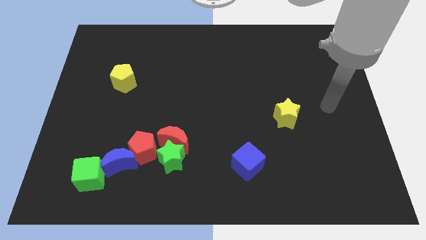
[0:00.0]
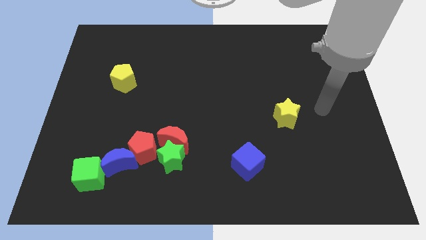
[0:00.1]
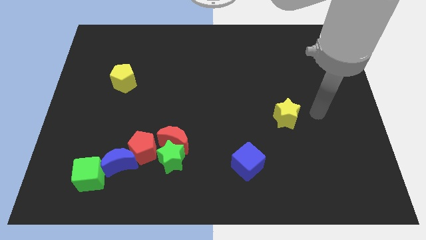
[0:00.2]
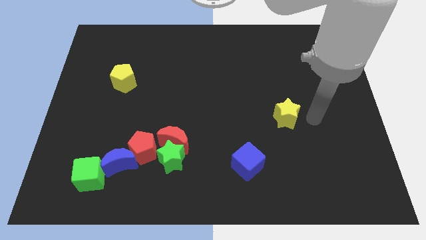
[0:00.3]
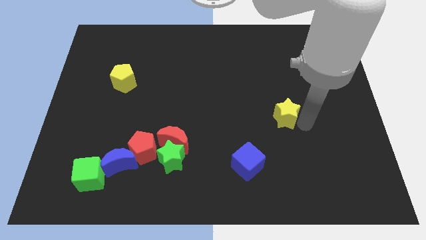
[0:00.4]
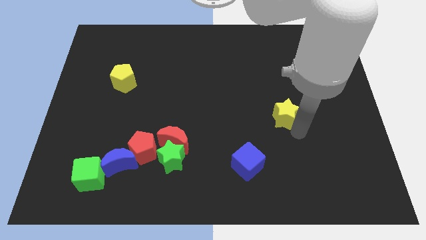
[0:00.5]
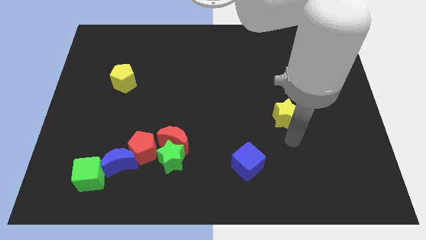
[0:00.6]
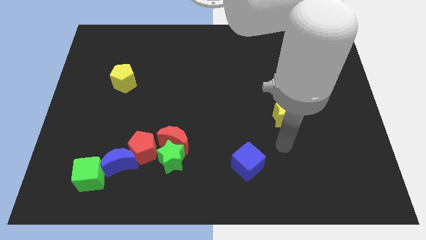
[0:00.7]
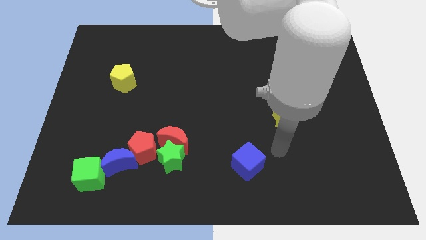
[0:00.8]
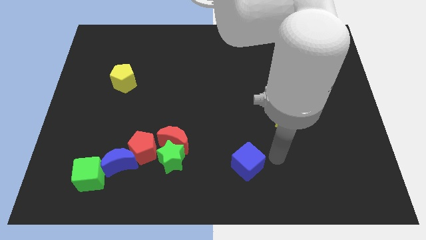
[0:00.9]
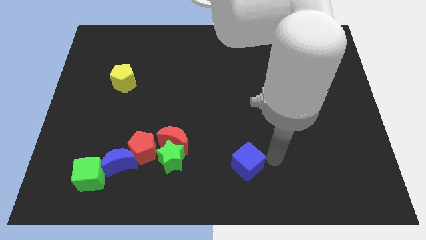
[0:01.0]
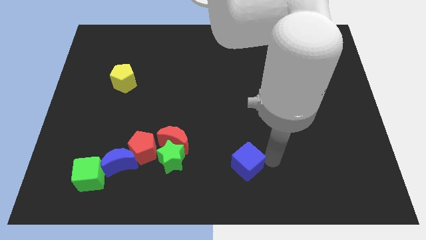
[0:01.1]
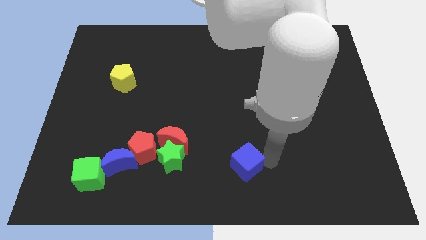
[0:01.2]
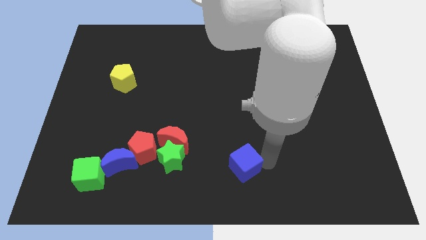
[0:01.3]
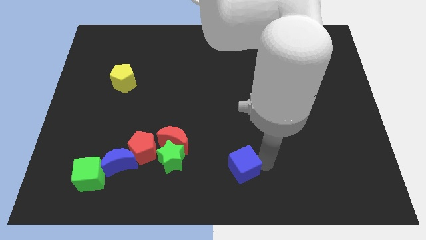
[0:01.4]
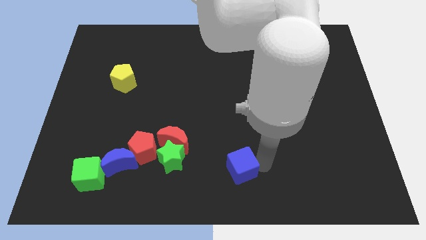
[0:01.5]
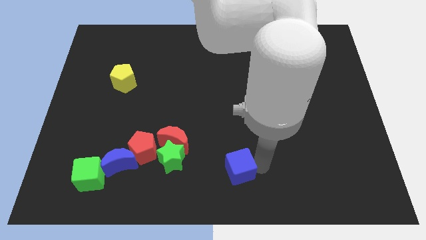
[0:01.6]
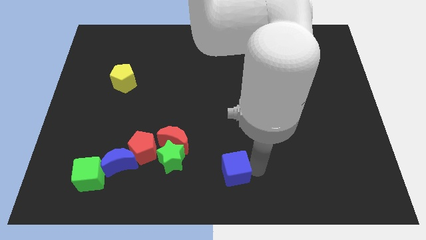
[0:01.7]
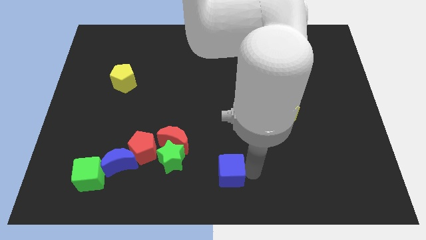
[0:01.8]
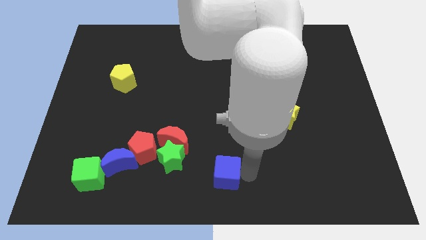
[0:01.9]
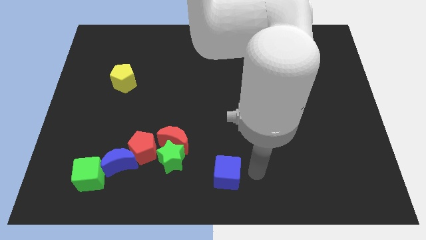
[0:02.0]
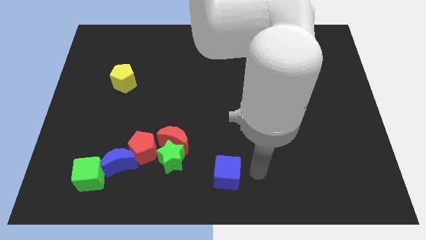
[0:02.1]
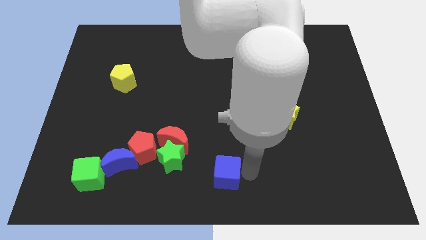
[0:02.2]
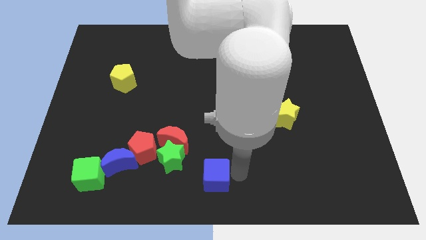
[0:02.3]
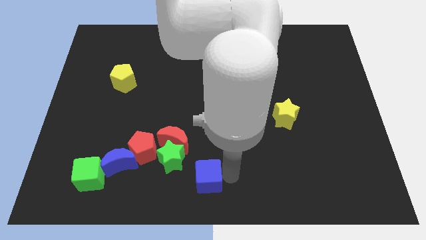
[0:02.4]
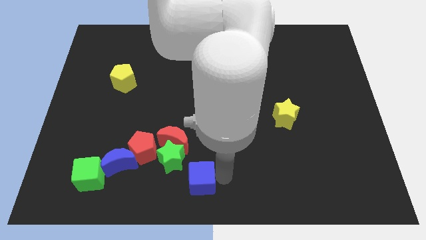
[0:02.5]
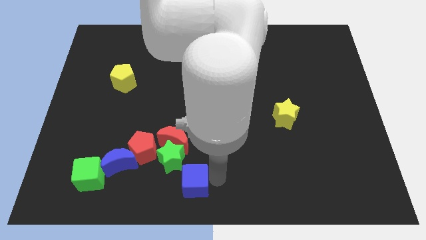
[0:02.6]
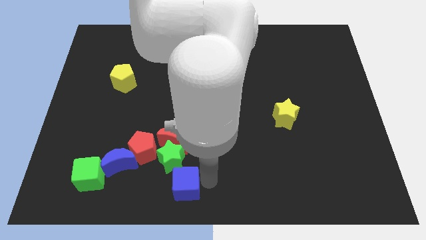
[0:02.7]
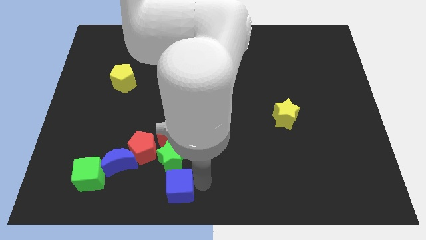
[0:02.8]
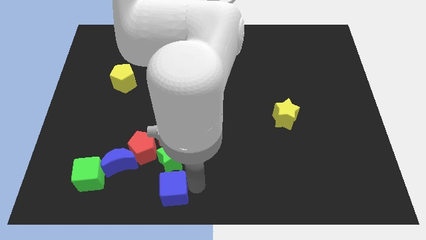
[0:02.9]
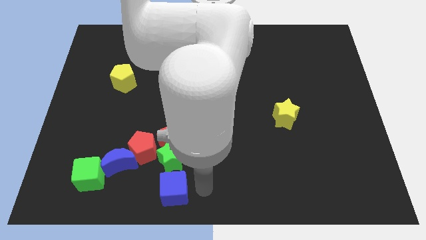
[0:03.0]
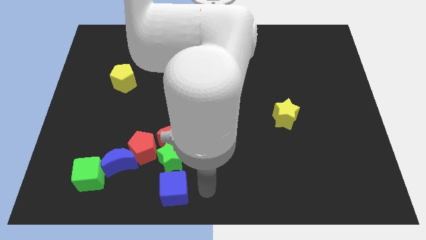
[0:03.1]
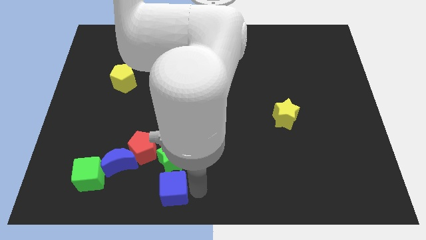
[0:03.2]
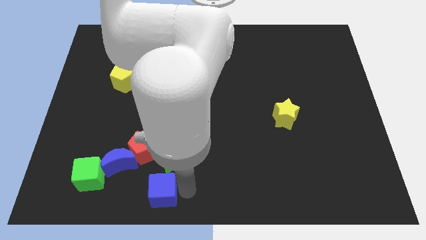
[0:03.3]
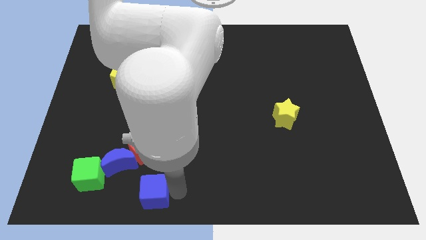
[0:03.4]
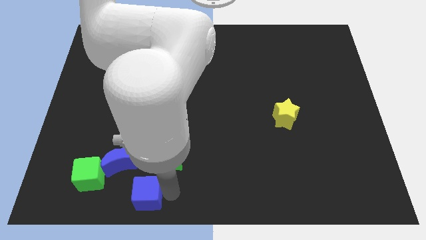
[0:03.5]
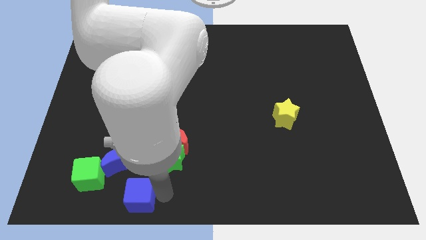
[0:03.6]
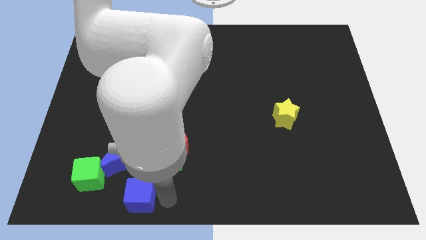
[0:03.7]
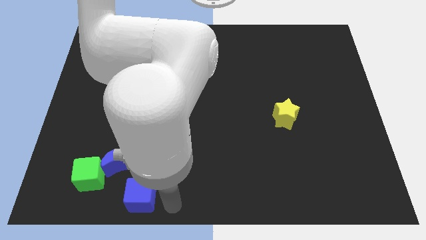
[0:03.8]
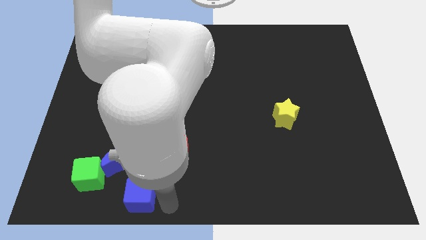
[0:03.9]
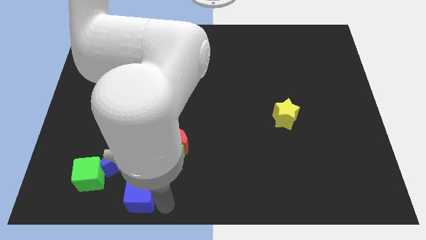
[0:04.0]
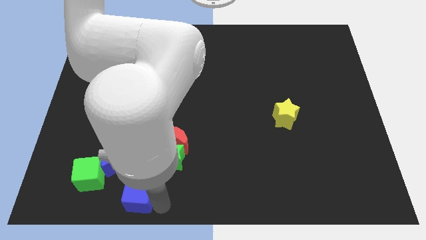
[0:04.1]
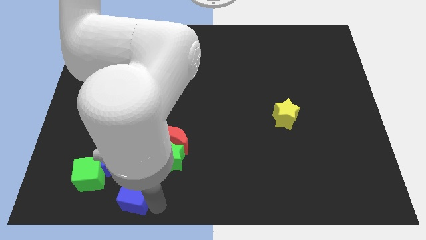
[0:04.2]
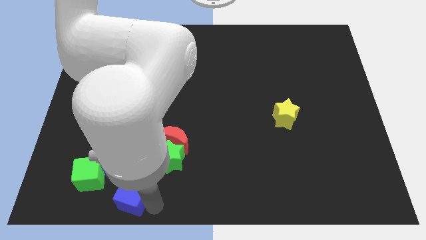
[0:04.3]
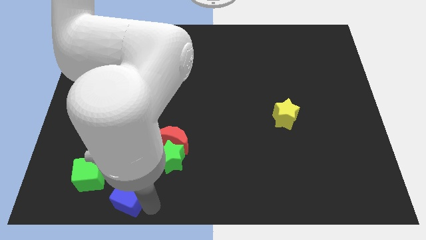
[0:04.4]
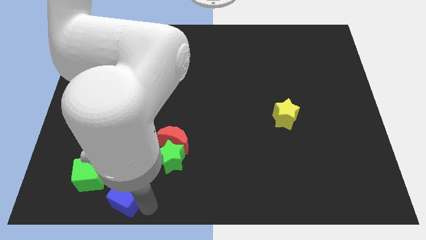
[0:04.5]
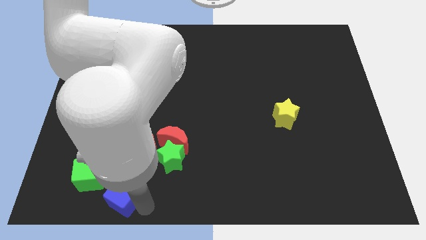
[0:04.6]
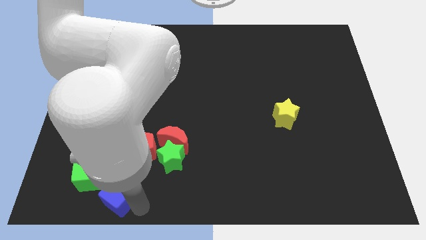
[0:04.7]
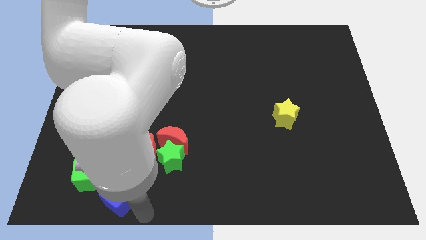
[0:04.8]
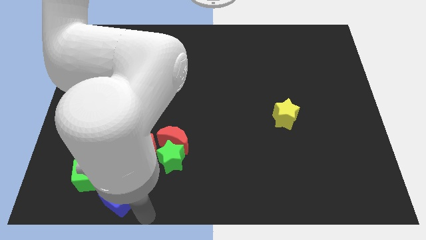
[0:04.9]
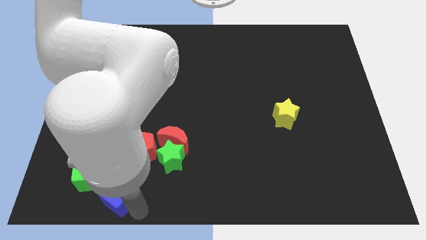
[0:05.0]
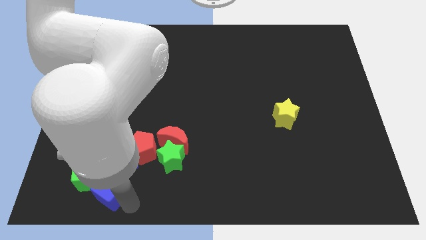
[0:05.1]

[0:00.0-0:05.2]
push the blue cube towards the green cube

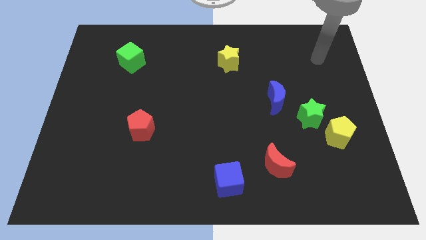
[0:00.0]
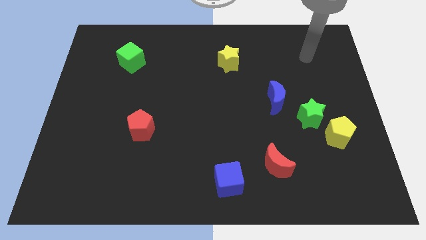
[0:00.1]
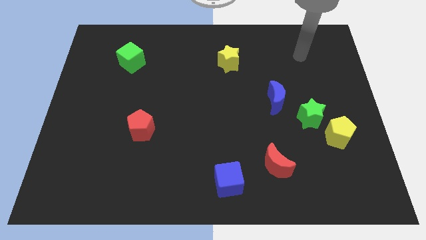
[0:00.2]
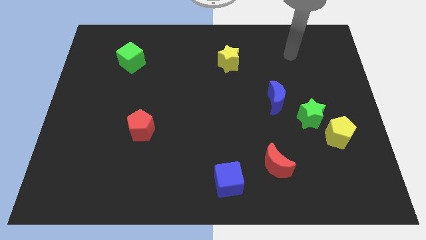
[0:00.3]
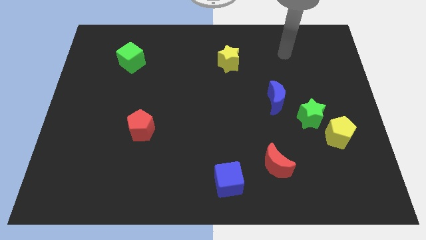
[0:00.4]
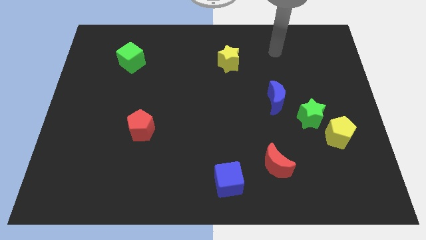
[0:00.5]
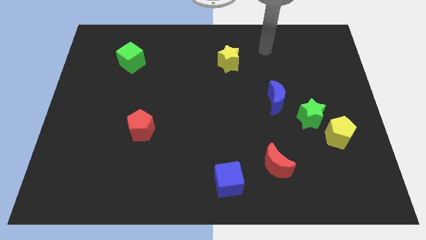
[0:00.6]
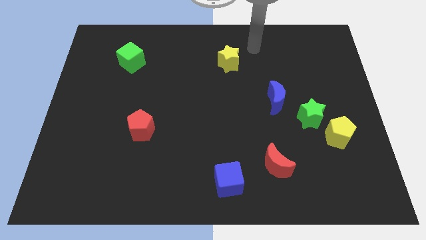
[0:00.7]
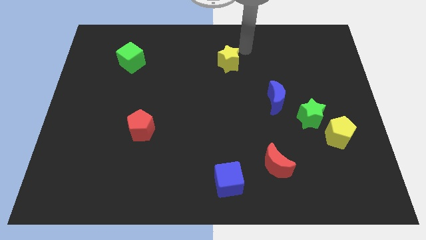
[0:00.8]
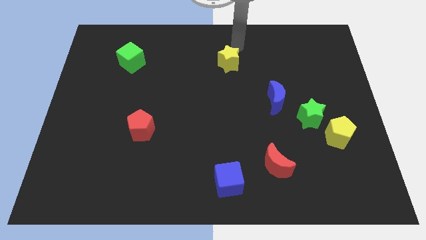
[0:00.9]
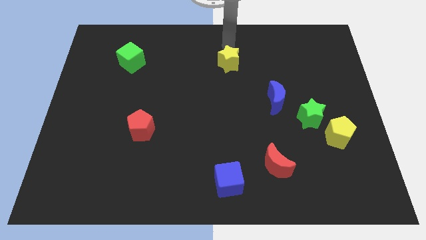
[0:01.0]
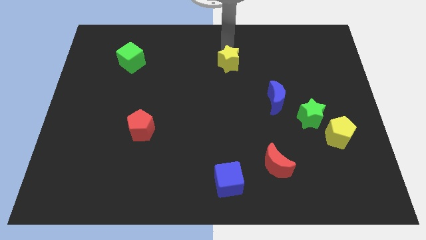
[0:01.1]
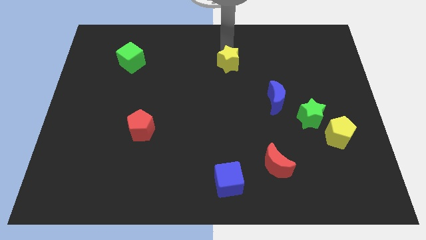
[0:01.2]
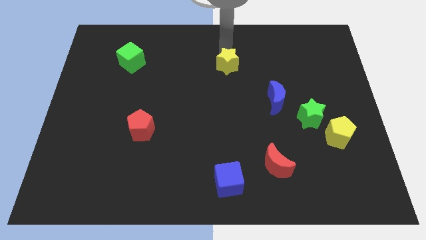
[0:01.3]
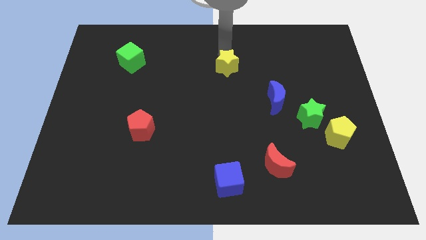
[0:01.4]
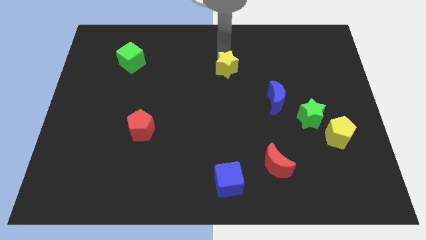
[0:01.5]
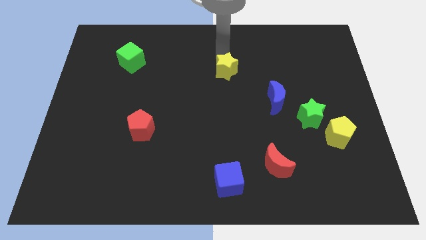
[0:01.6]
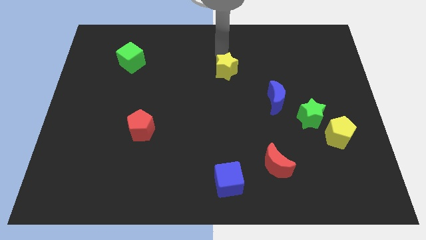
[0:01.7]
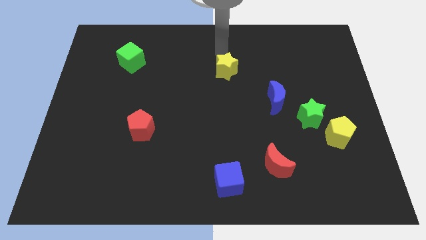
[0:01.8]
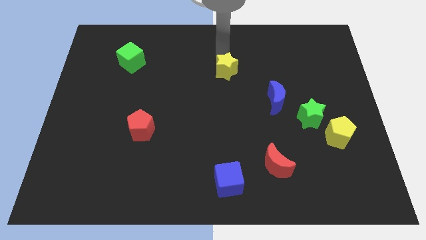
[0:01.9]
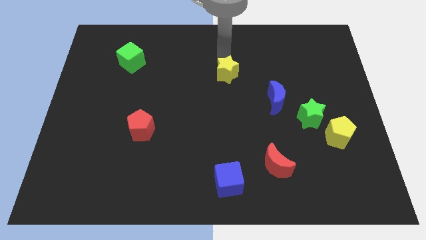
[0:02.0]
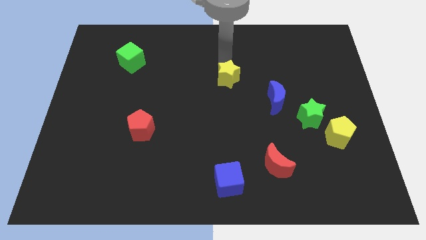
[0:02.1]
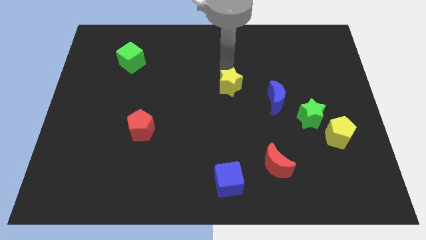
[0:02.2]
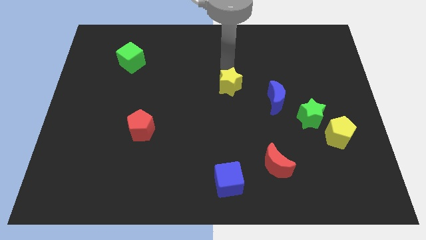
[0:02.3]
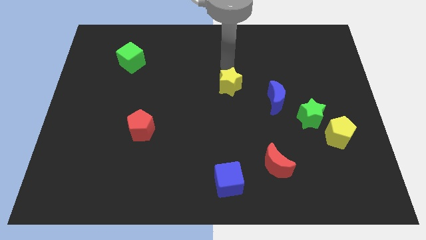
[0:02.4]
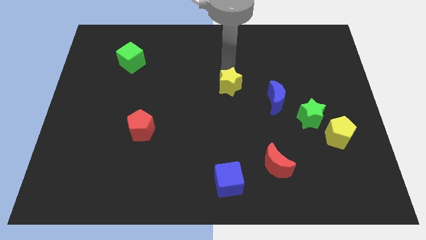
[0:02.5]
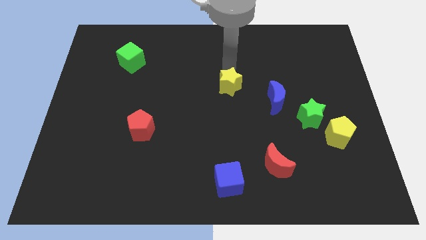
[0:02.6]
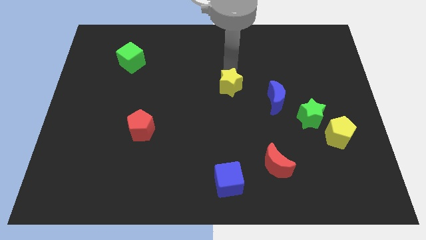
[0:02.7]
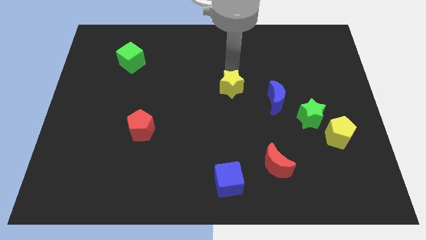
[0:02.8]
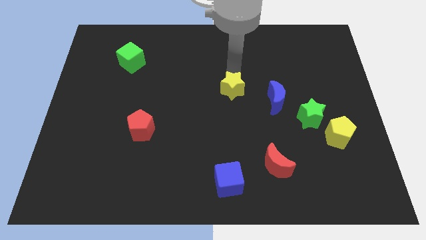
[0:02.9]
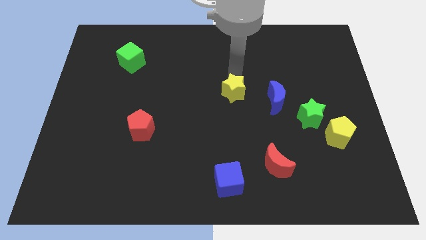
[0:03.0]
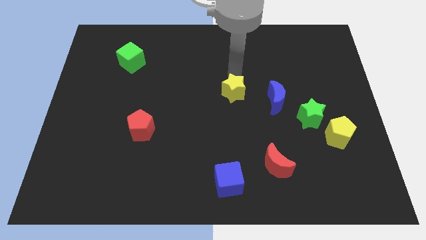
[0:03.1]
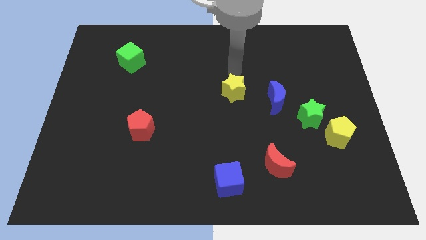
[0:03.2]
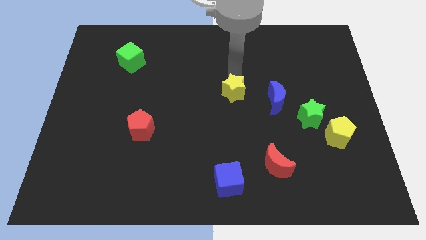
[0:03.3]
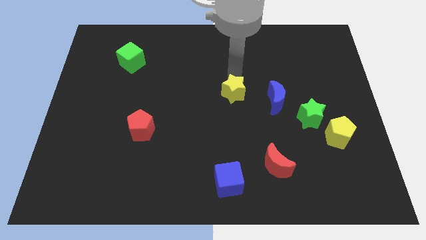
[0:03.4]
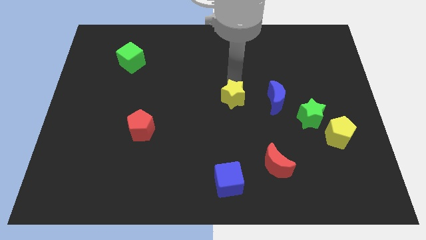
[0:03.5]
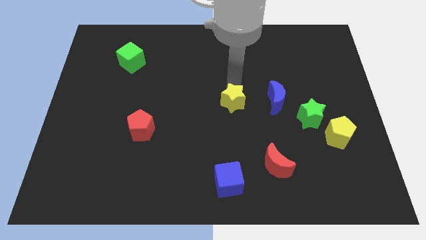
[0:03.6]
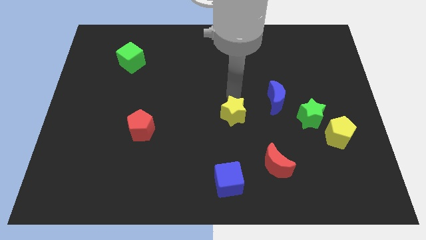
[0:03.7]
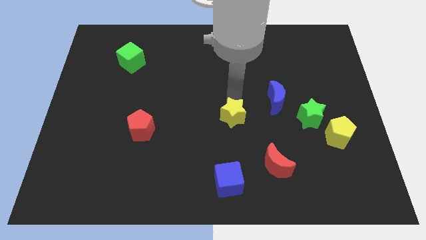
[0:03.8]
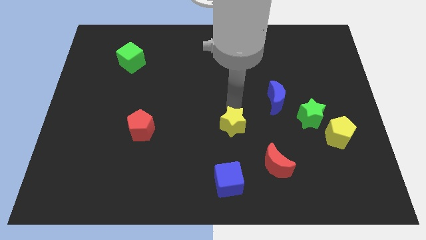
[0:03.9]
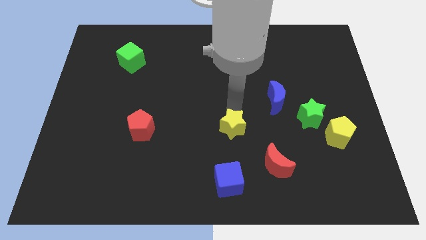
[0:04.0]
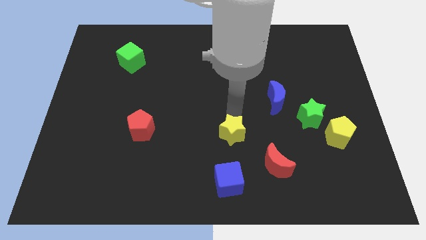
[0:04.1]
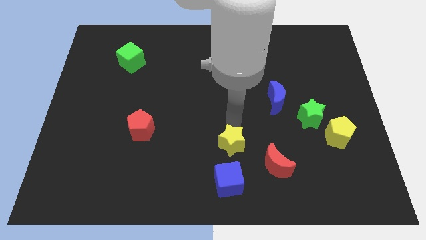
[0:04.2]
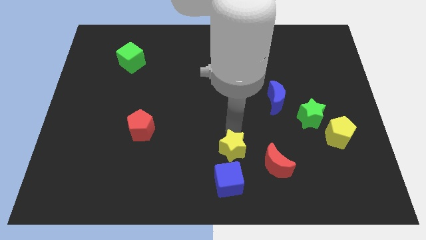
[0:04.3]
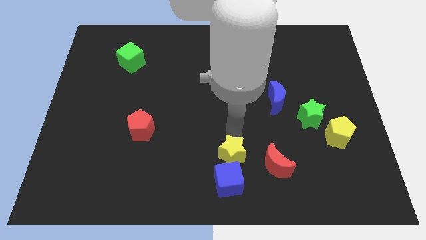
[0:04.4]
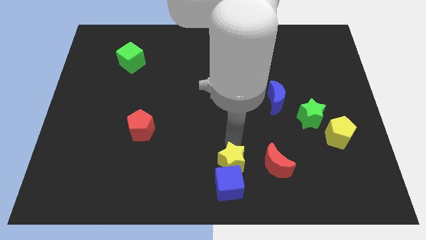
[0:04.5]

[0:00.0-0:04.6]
move the yellow star towards the blue cube
